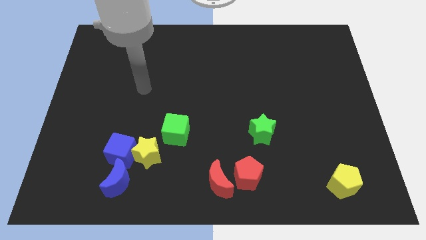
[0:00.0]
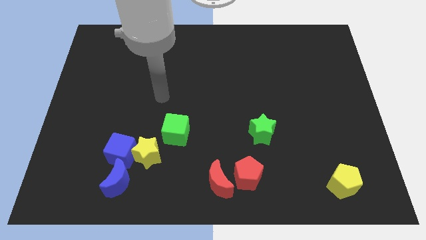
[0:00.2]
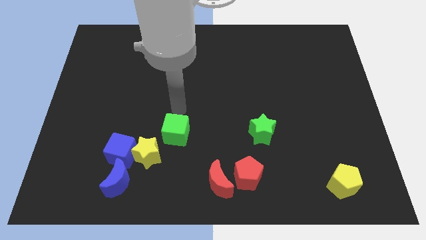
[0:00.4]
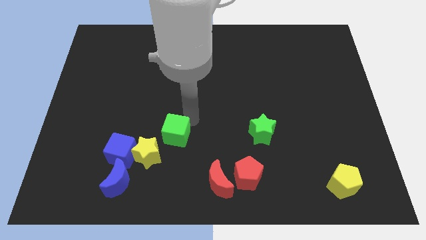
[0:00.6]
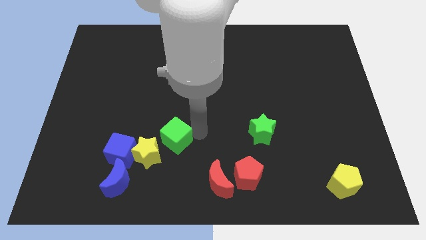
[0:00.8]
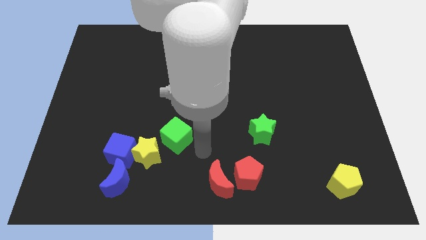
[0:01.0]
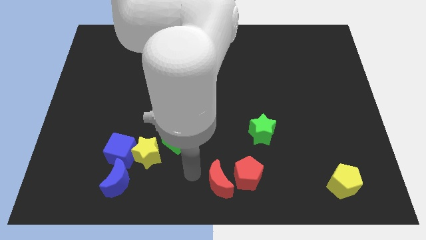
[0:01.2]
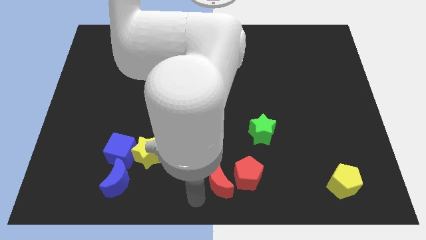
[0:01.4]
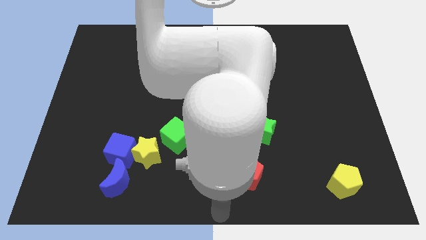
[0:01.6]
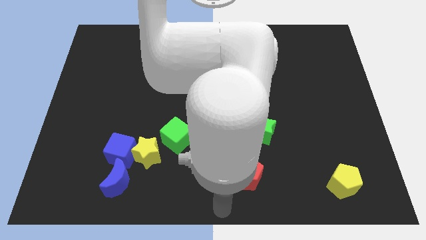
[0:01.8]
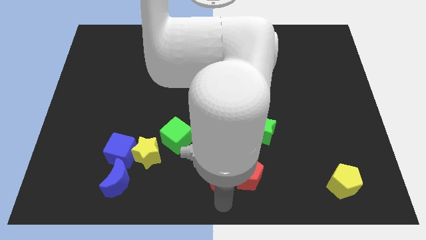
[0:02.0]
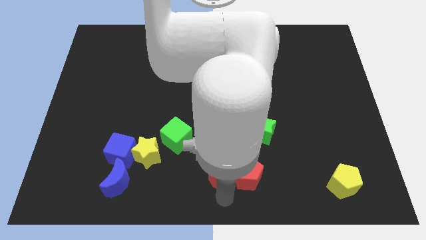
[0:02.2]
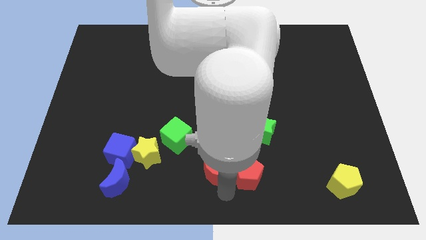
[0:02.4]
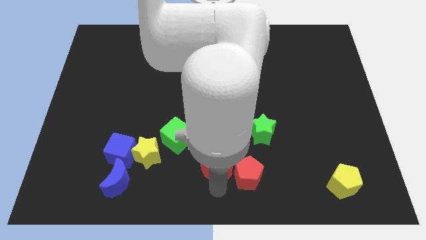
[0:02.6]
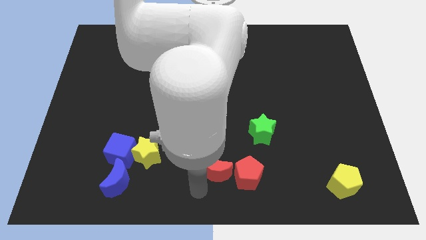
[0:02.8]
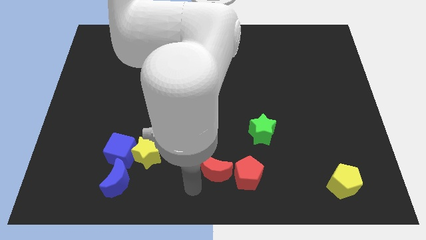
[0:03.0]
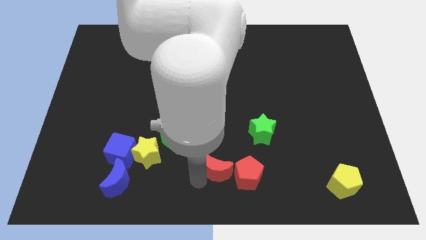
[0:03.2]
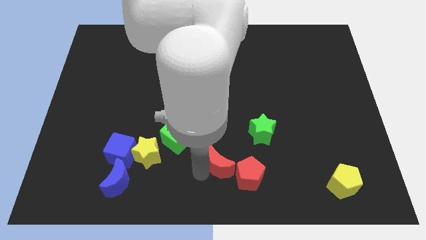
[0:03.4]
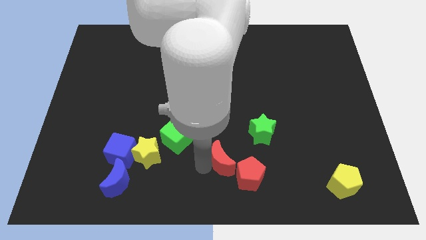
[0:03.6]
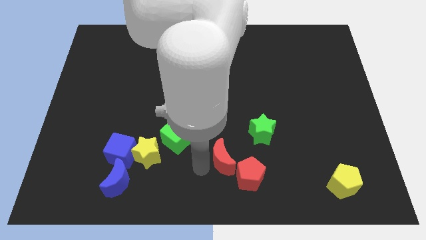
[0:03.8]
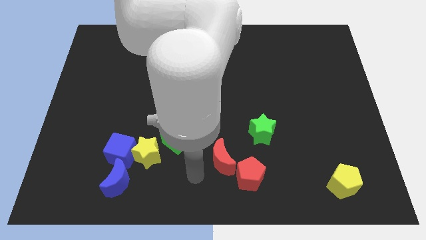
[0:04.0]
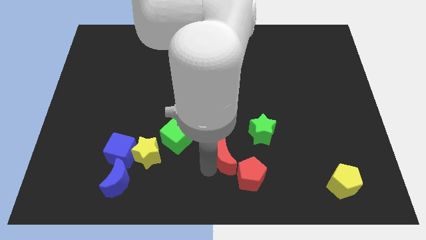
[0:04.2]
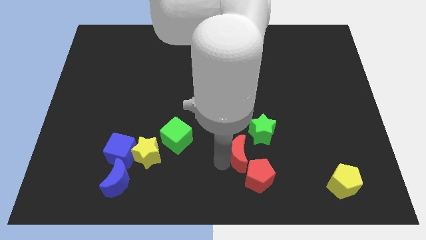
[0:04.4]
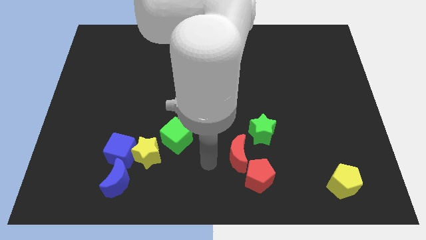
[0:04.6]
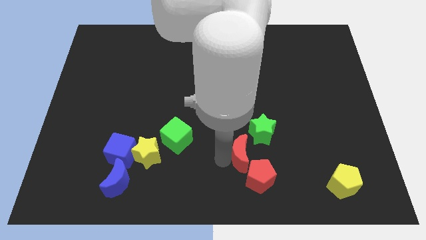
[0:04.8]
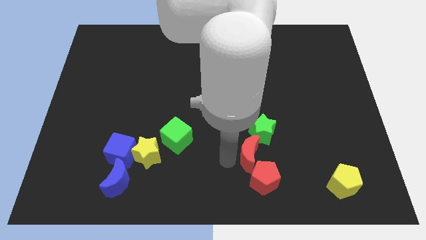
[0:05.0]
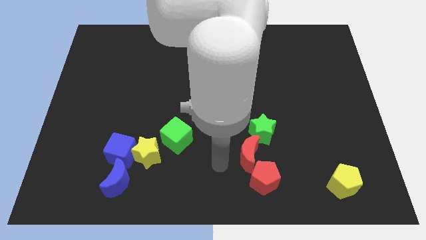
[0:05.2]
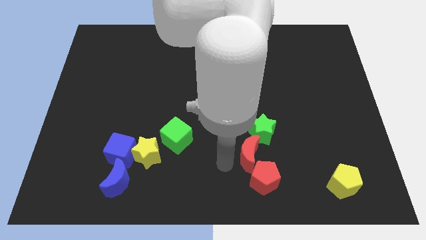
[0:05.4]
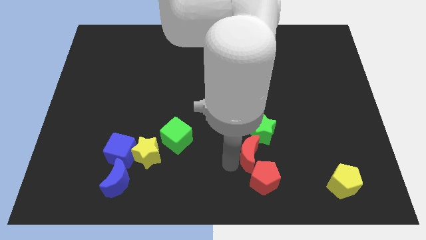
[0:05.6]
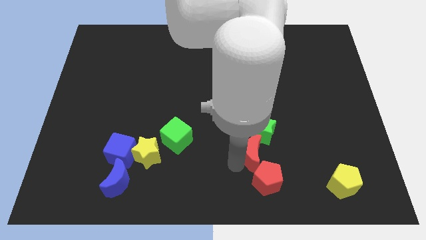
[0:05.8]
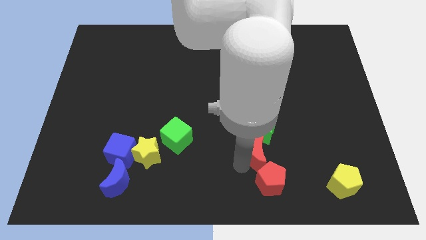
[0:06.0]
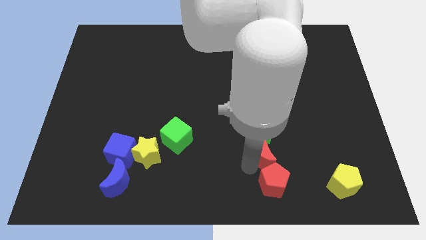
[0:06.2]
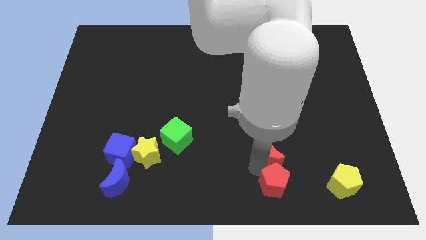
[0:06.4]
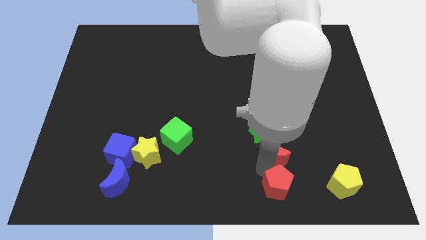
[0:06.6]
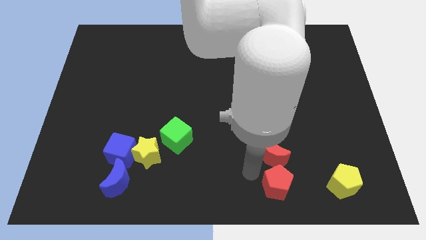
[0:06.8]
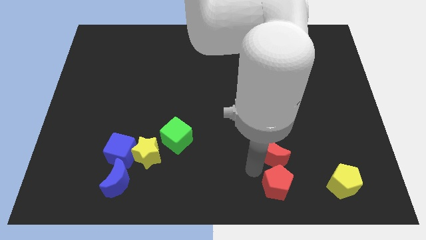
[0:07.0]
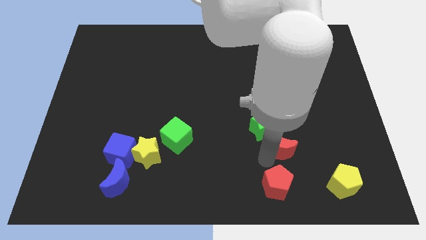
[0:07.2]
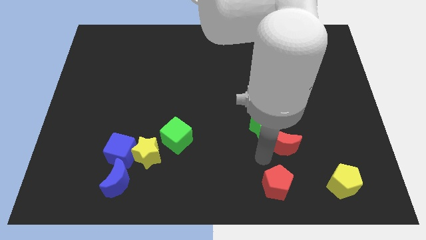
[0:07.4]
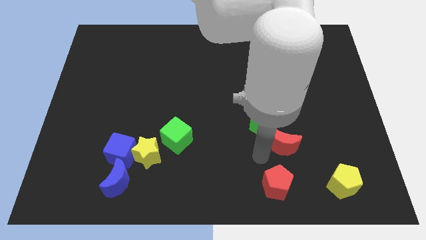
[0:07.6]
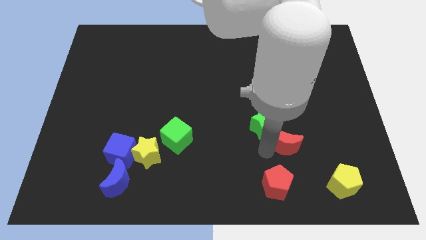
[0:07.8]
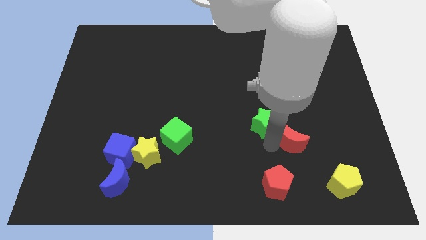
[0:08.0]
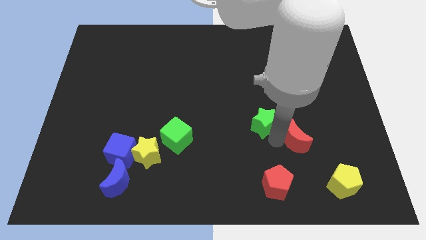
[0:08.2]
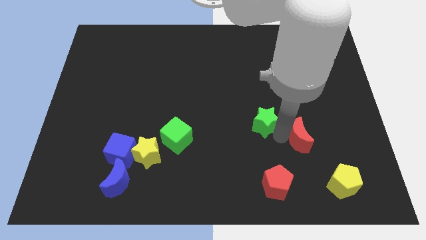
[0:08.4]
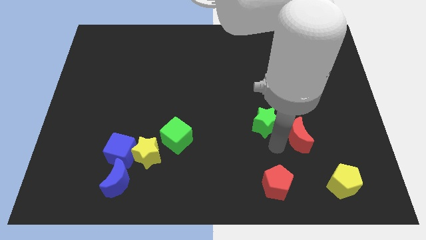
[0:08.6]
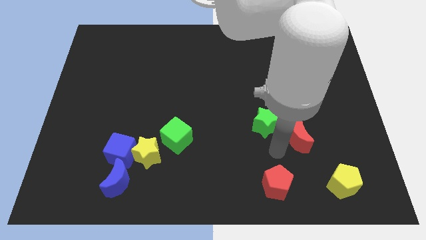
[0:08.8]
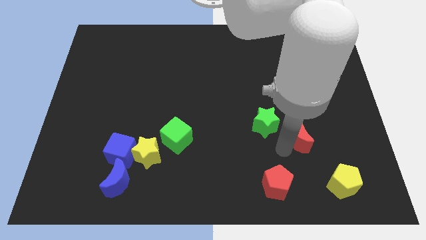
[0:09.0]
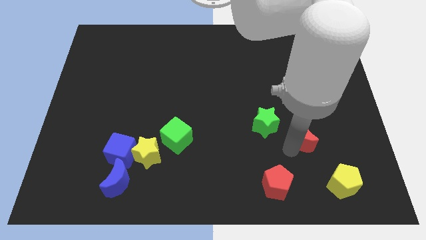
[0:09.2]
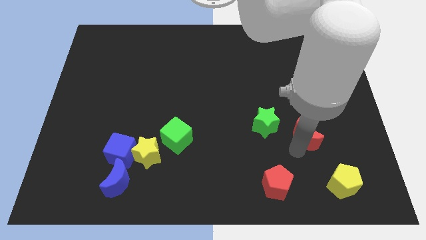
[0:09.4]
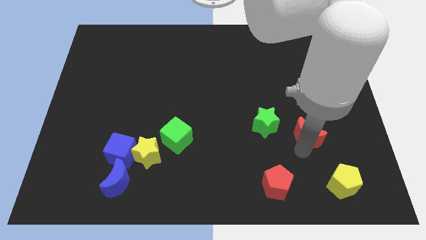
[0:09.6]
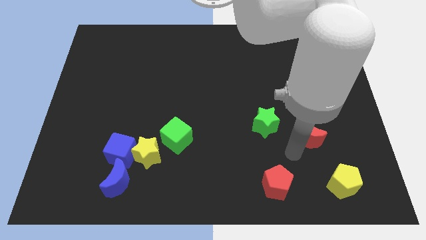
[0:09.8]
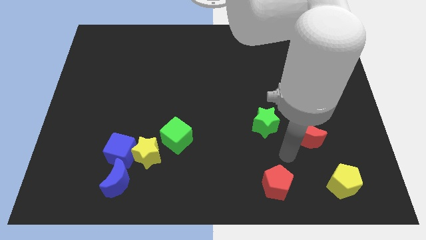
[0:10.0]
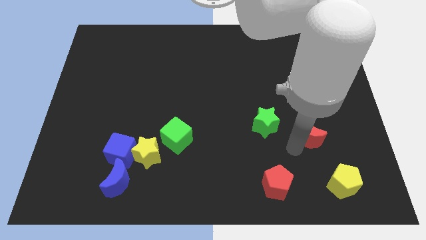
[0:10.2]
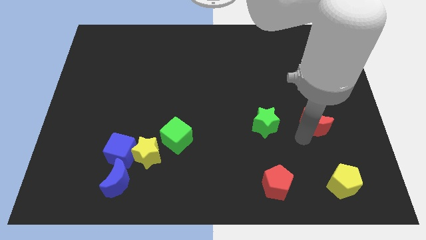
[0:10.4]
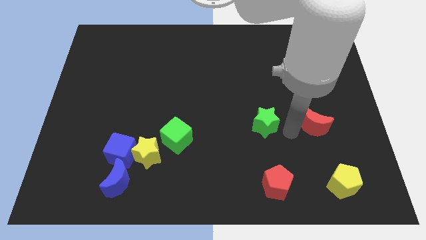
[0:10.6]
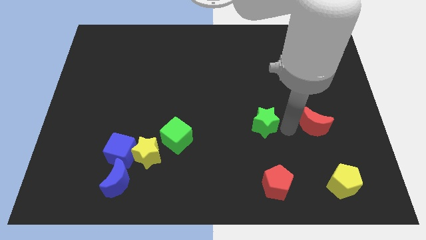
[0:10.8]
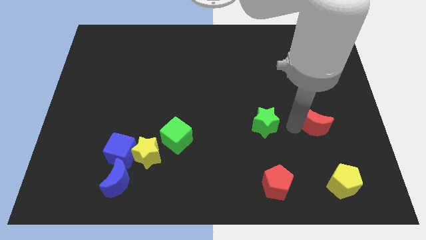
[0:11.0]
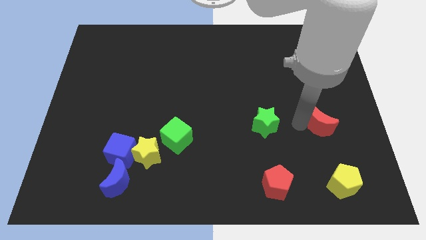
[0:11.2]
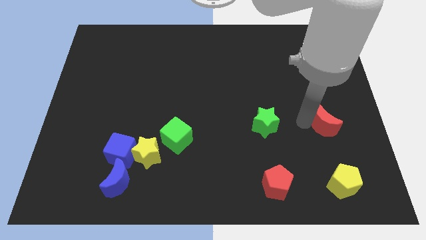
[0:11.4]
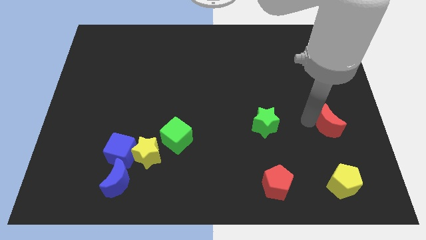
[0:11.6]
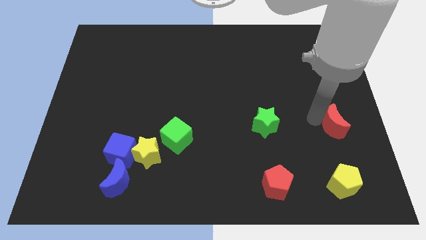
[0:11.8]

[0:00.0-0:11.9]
put the red moon to the right side of the board
